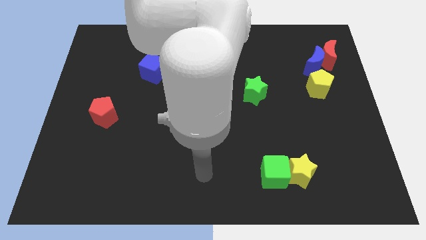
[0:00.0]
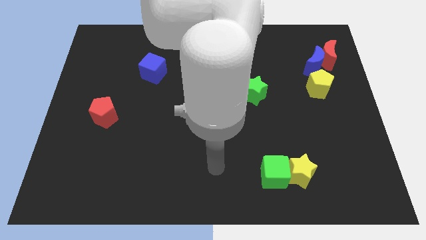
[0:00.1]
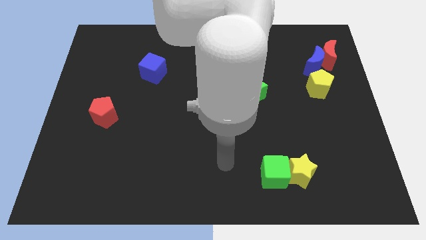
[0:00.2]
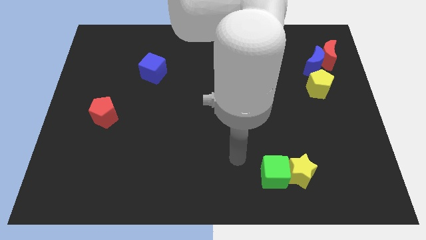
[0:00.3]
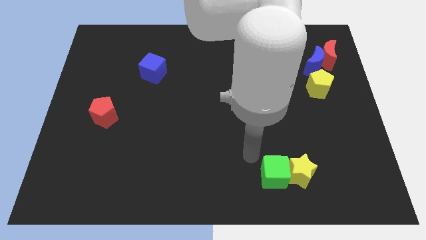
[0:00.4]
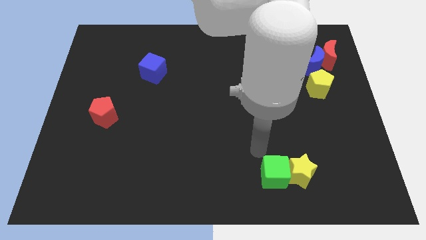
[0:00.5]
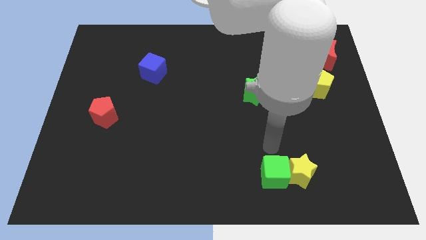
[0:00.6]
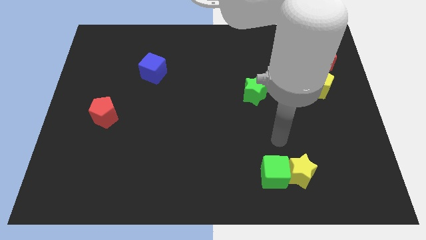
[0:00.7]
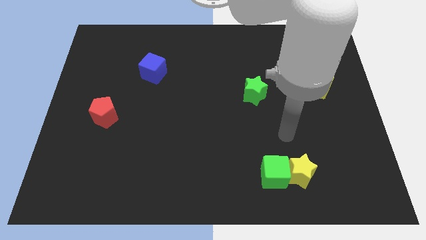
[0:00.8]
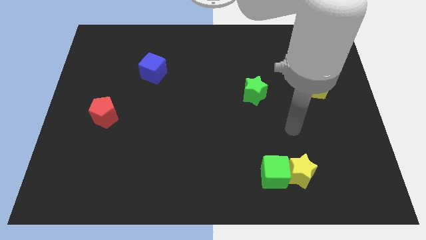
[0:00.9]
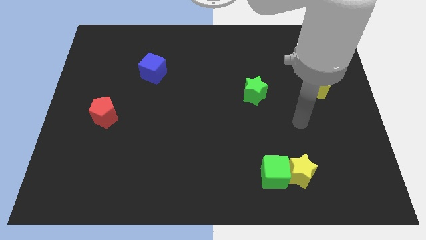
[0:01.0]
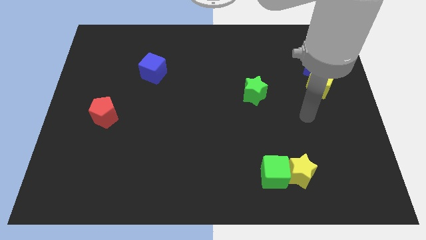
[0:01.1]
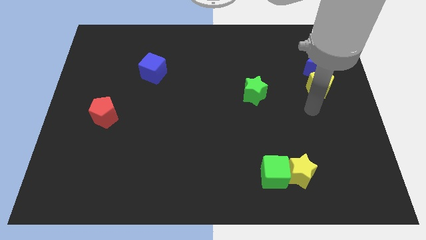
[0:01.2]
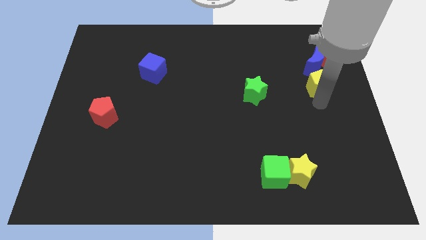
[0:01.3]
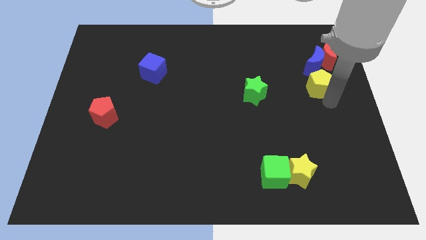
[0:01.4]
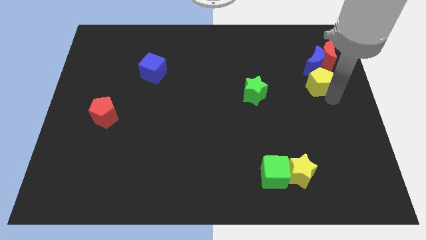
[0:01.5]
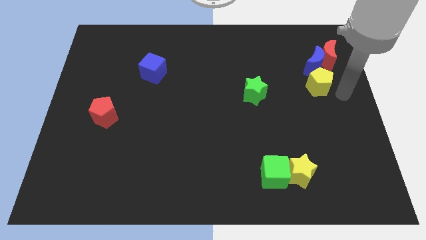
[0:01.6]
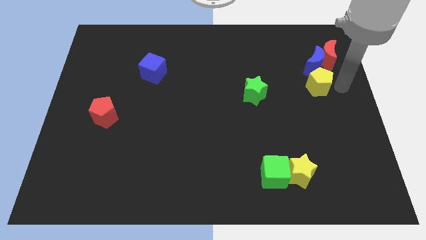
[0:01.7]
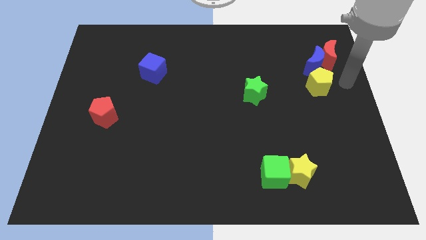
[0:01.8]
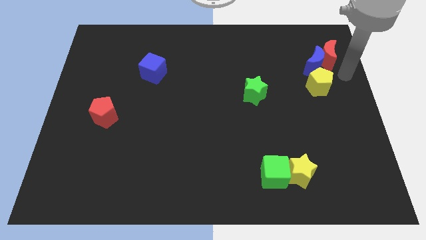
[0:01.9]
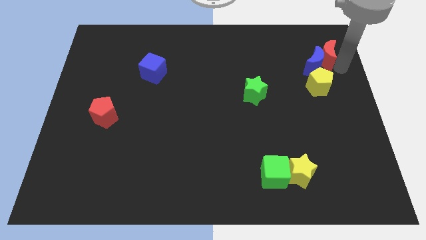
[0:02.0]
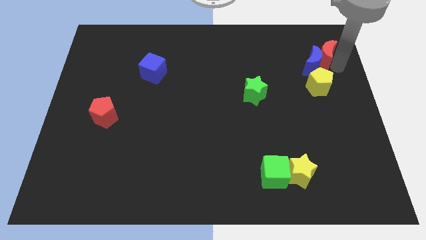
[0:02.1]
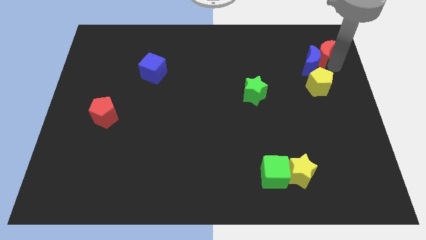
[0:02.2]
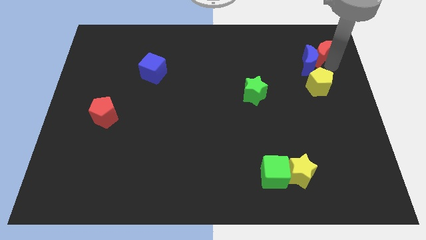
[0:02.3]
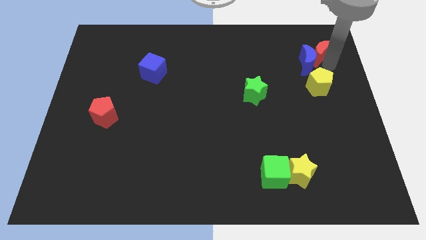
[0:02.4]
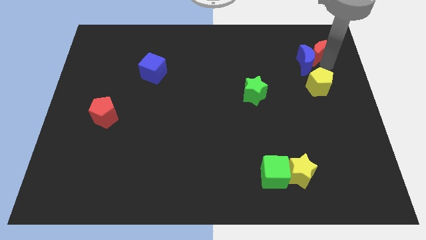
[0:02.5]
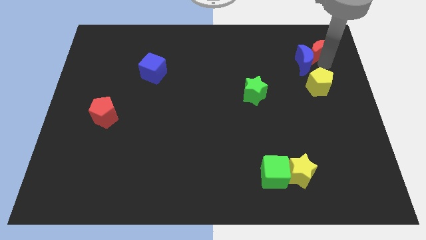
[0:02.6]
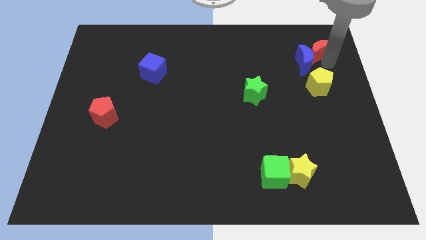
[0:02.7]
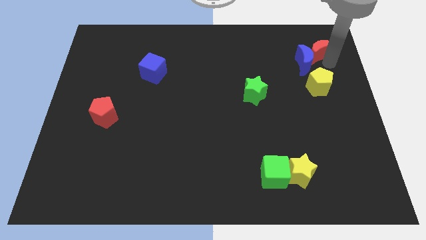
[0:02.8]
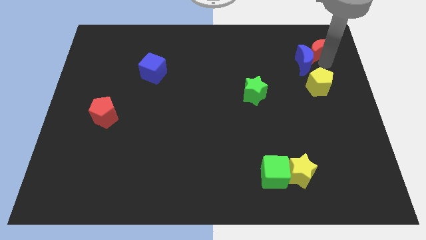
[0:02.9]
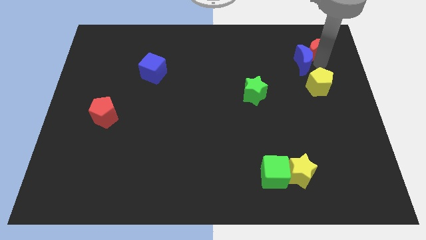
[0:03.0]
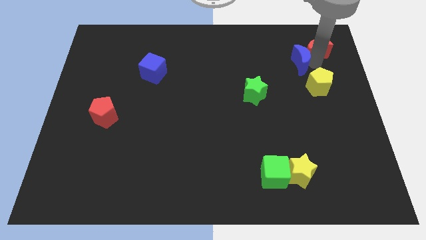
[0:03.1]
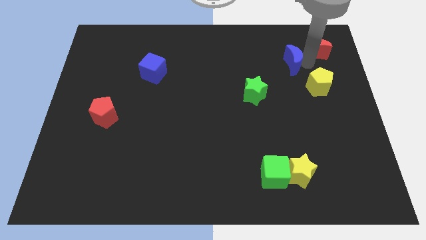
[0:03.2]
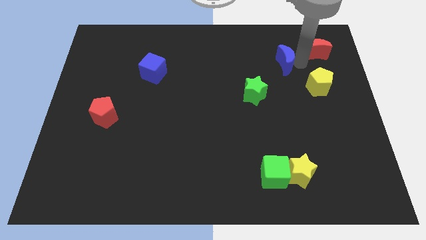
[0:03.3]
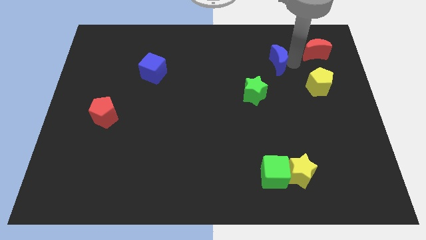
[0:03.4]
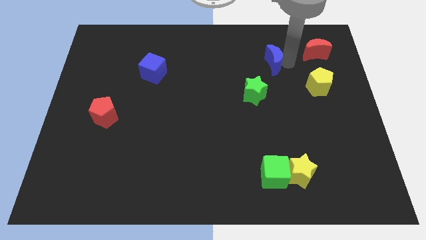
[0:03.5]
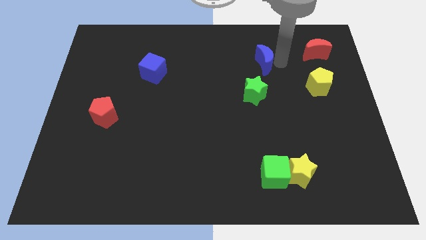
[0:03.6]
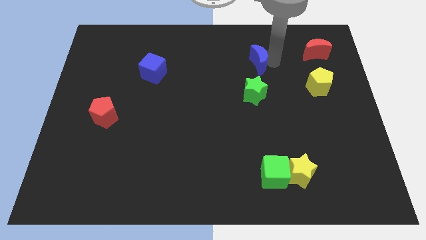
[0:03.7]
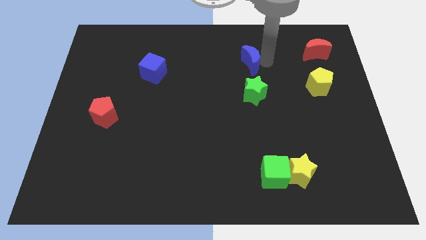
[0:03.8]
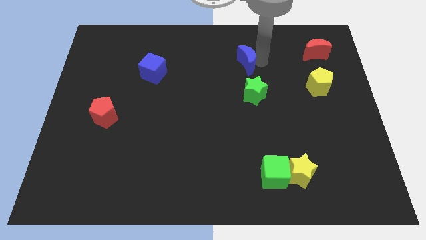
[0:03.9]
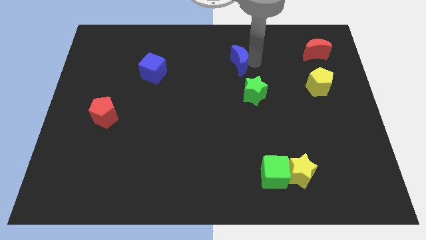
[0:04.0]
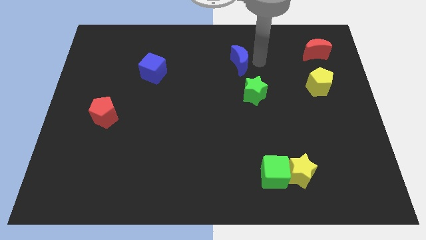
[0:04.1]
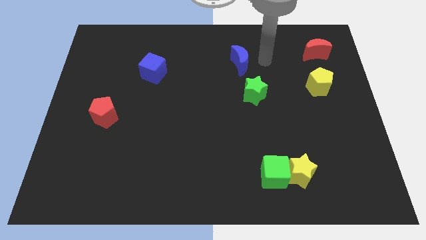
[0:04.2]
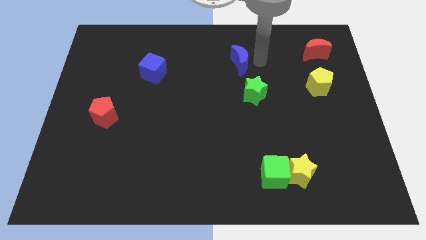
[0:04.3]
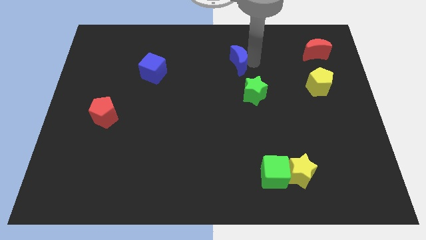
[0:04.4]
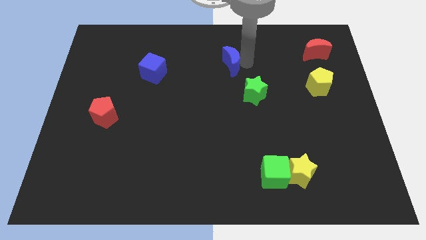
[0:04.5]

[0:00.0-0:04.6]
slide the blue moon left

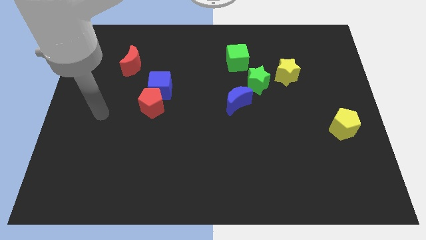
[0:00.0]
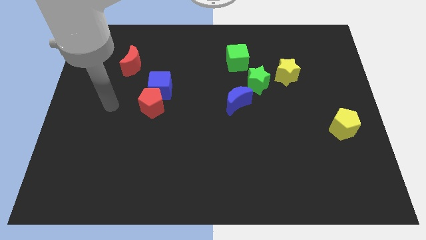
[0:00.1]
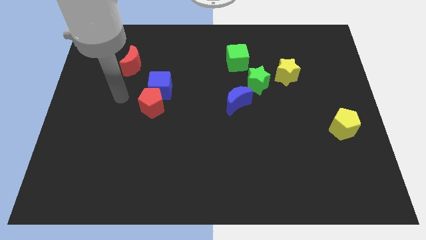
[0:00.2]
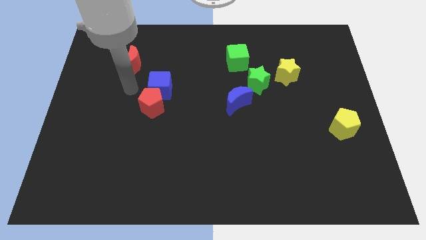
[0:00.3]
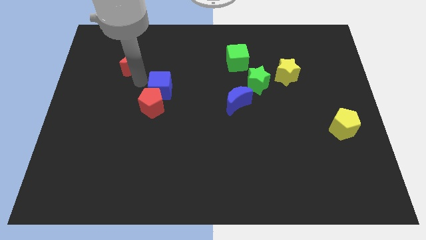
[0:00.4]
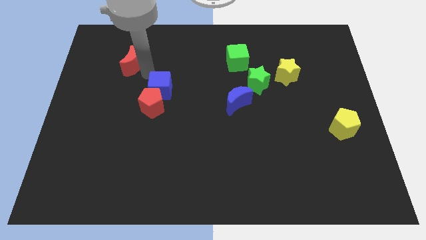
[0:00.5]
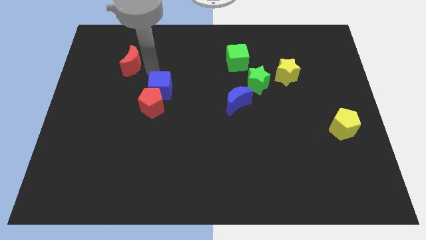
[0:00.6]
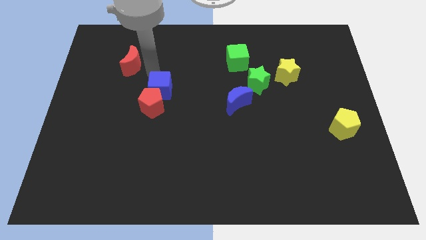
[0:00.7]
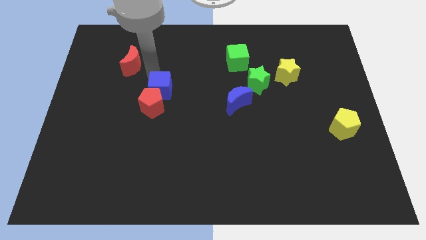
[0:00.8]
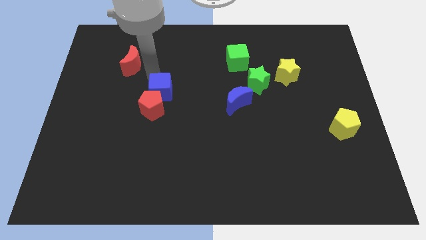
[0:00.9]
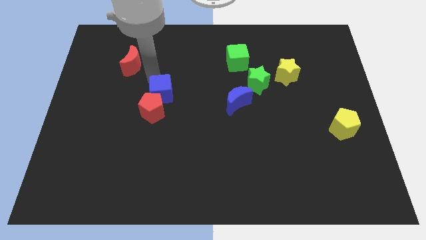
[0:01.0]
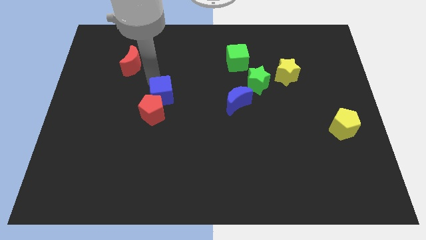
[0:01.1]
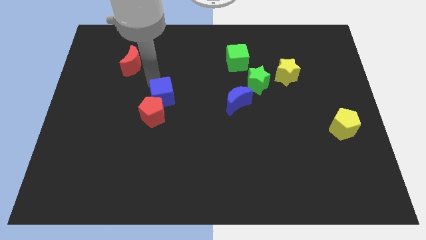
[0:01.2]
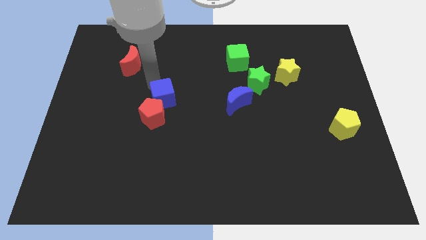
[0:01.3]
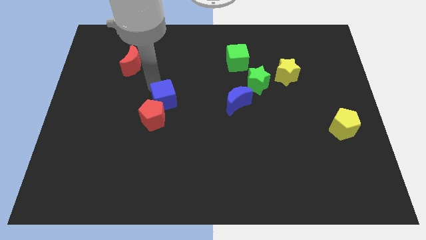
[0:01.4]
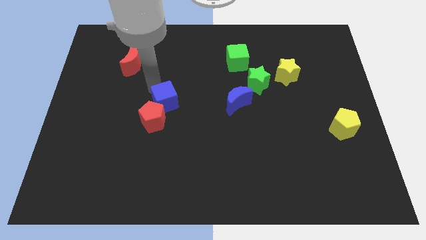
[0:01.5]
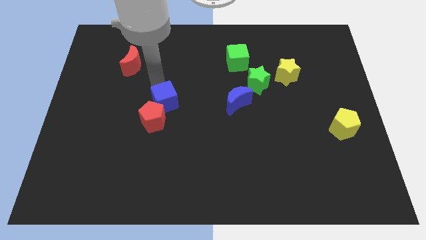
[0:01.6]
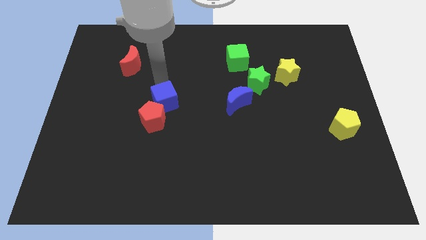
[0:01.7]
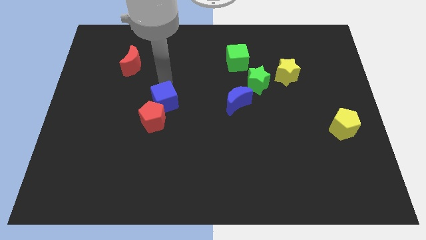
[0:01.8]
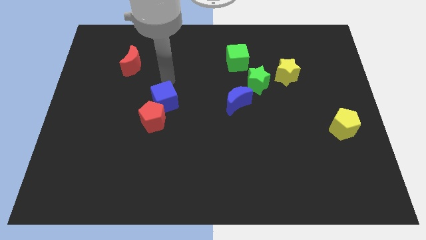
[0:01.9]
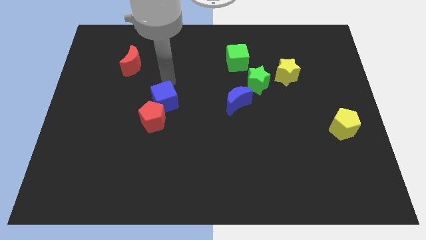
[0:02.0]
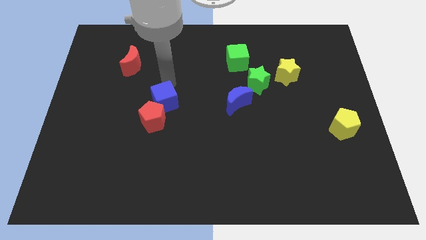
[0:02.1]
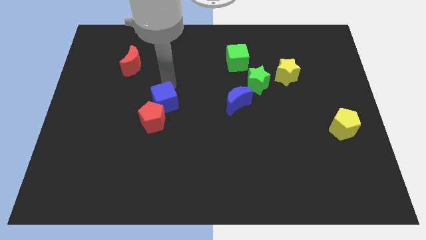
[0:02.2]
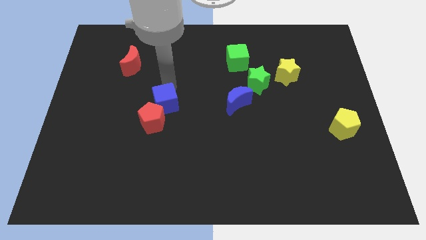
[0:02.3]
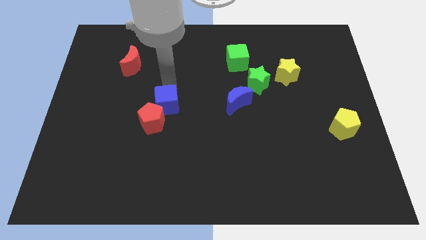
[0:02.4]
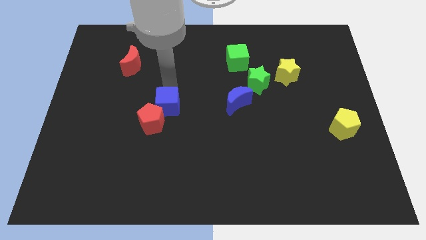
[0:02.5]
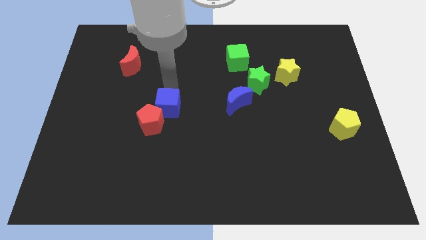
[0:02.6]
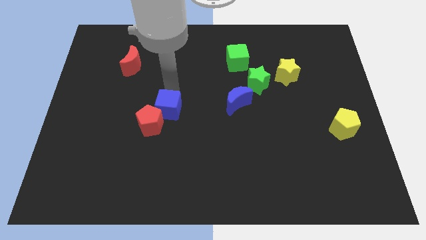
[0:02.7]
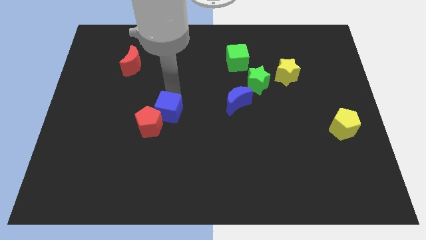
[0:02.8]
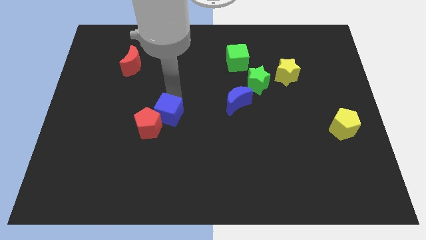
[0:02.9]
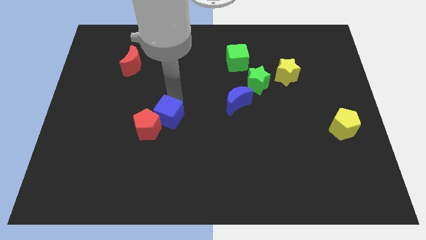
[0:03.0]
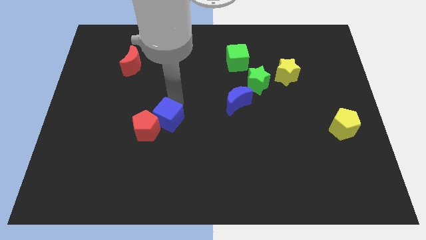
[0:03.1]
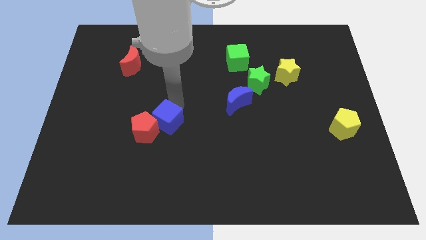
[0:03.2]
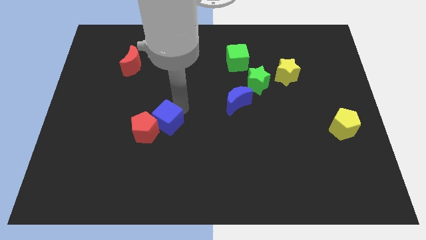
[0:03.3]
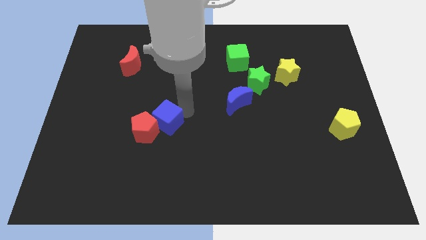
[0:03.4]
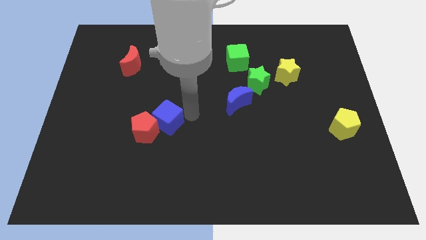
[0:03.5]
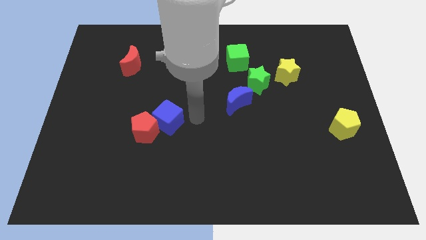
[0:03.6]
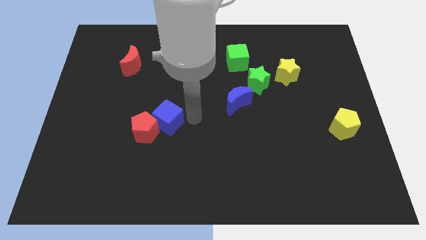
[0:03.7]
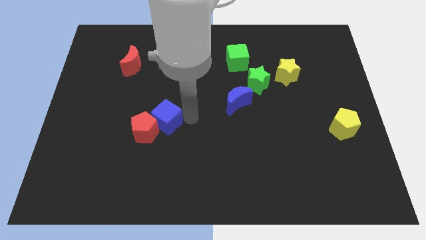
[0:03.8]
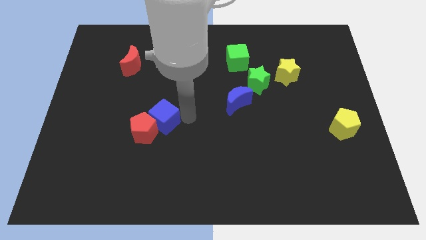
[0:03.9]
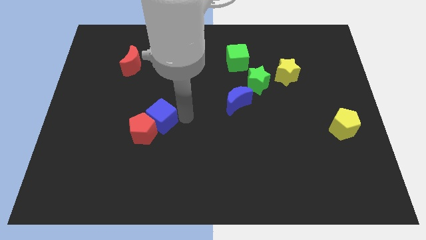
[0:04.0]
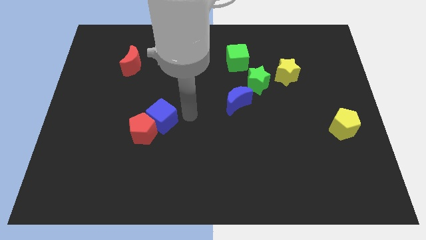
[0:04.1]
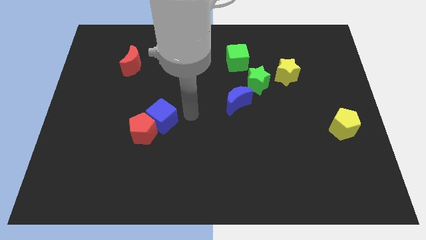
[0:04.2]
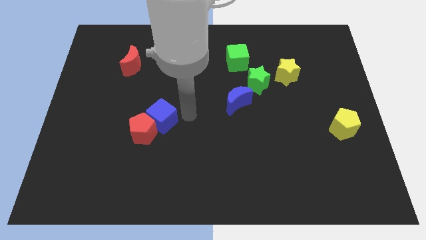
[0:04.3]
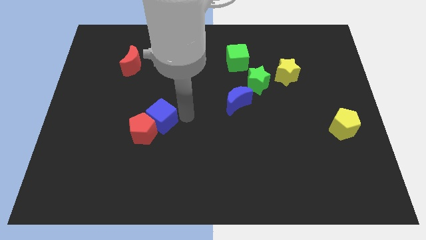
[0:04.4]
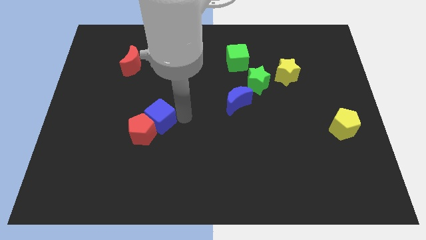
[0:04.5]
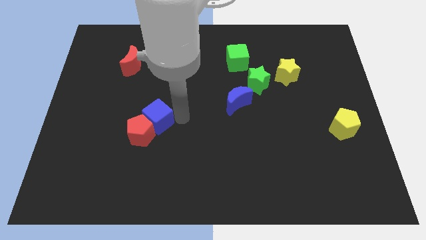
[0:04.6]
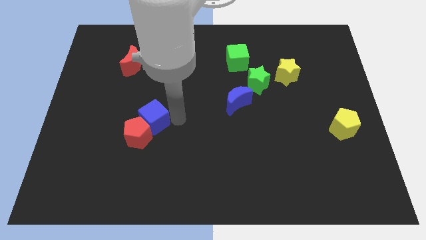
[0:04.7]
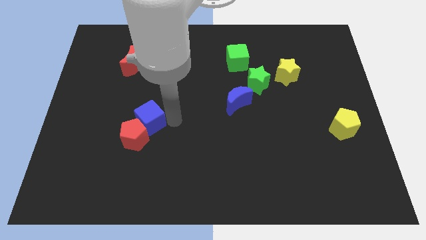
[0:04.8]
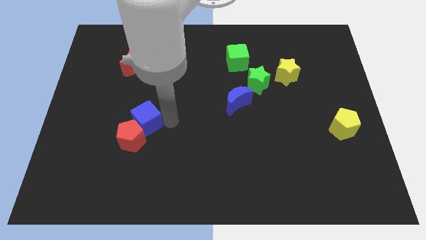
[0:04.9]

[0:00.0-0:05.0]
slightly move the blue cube down and then left
